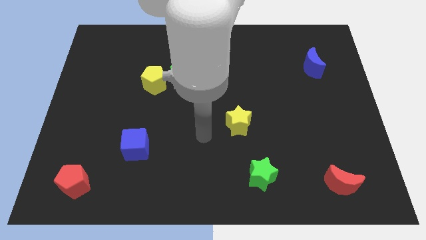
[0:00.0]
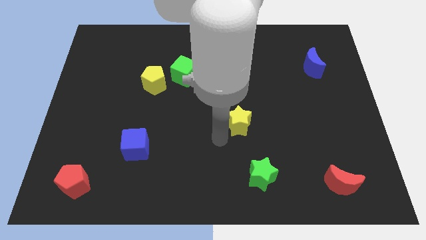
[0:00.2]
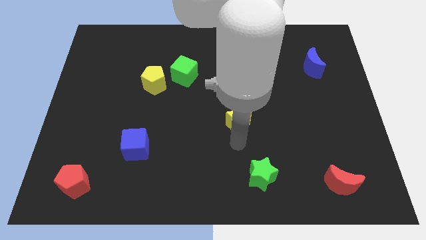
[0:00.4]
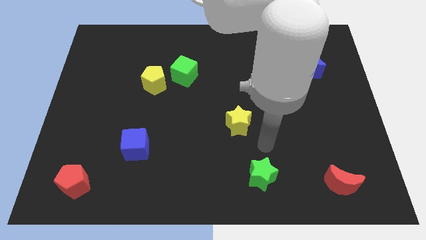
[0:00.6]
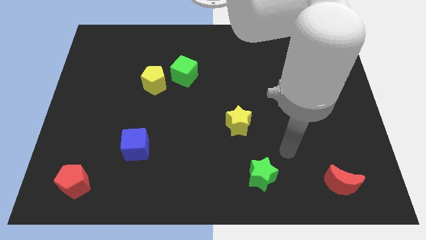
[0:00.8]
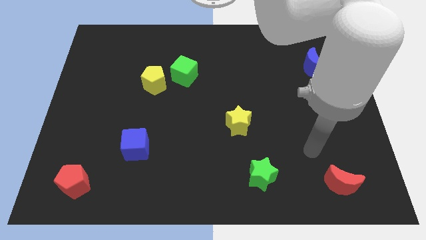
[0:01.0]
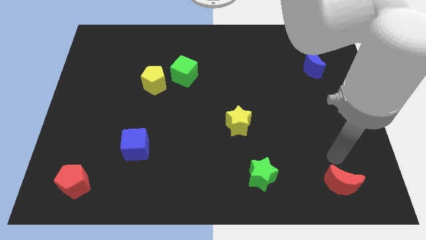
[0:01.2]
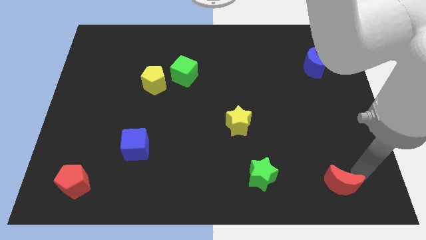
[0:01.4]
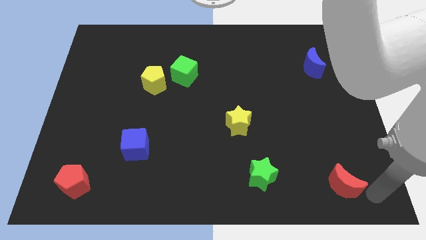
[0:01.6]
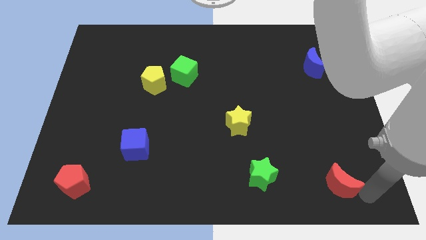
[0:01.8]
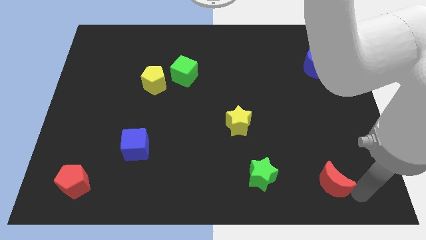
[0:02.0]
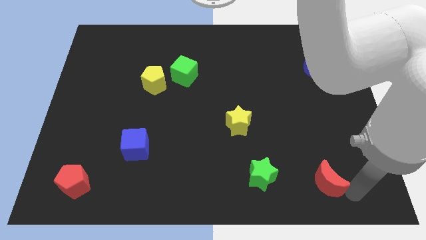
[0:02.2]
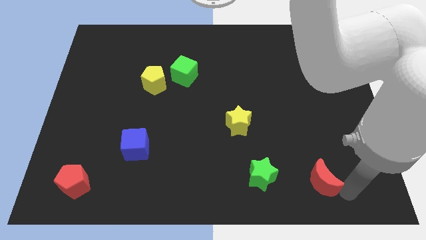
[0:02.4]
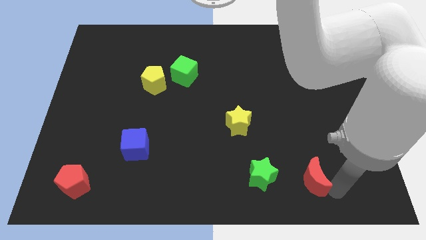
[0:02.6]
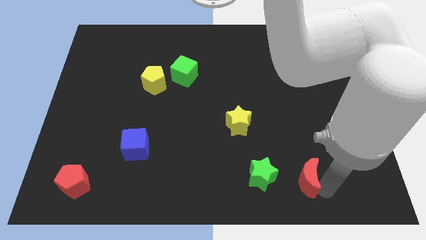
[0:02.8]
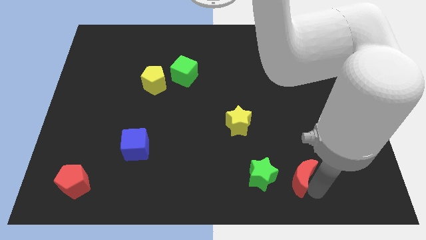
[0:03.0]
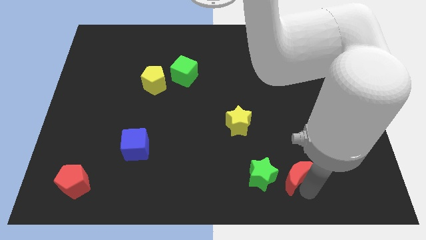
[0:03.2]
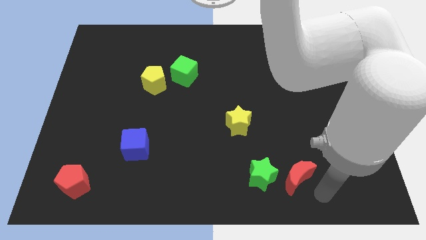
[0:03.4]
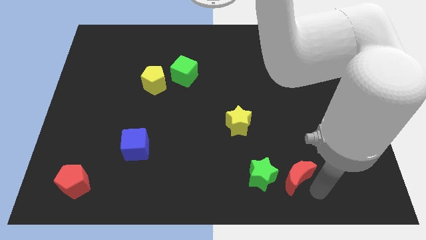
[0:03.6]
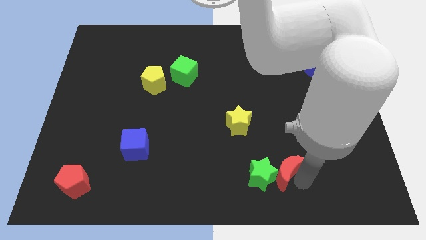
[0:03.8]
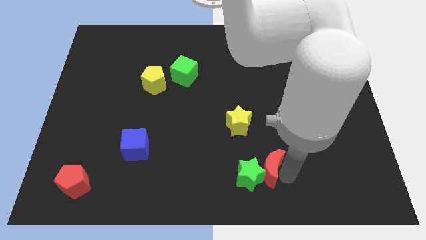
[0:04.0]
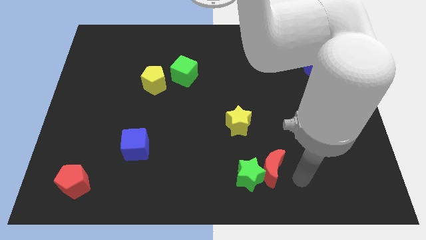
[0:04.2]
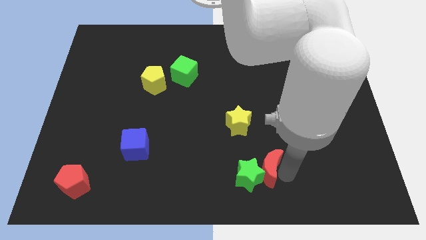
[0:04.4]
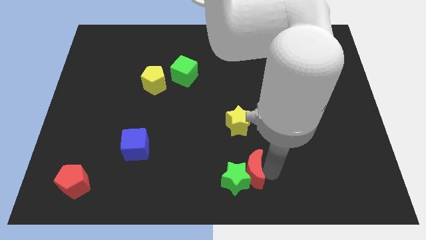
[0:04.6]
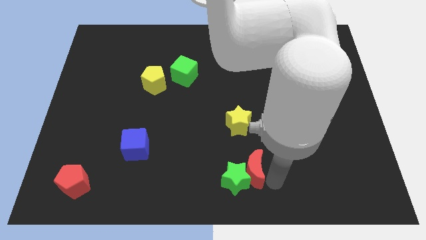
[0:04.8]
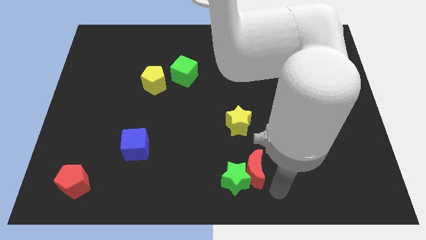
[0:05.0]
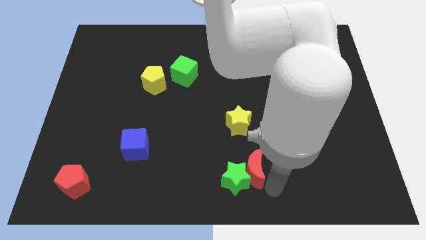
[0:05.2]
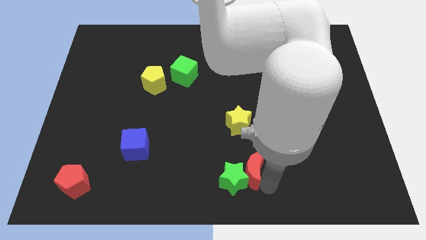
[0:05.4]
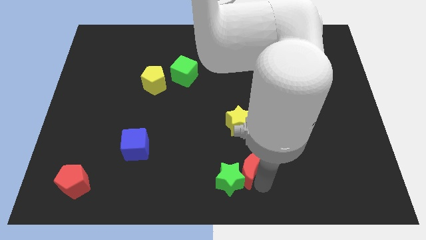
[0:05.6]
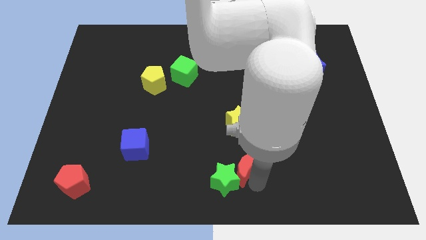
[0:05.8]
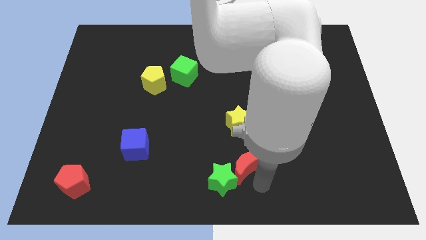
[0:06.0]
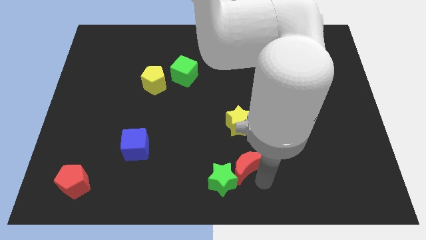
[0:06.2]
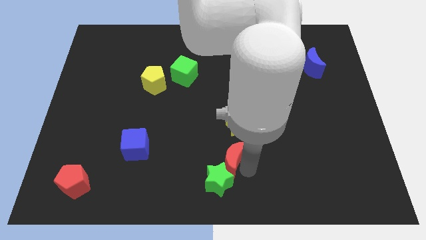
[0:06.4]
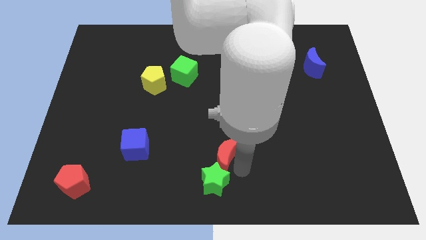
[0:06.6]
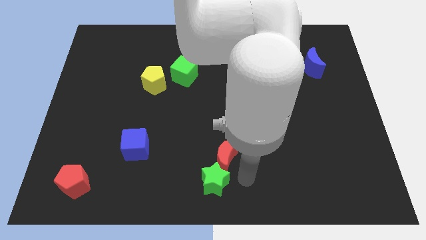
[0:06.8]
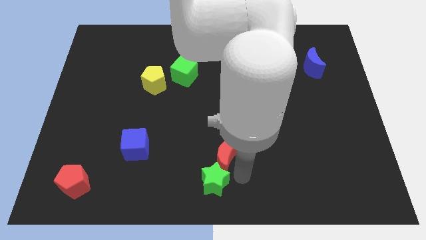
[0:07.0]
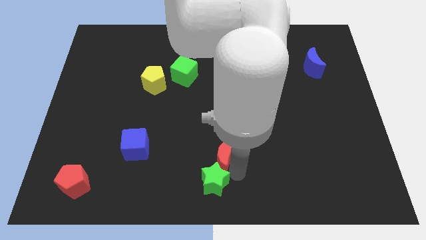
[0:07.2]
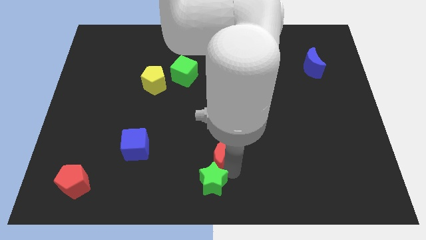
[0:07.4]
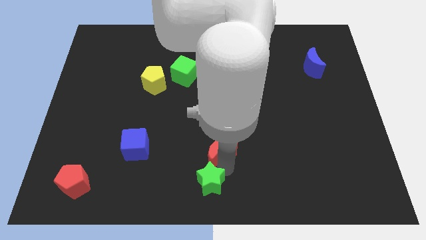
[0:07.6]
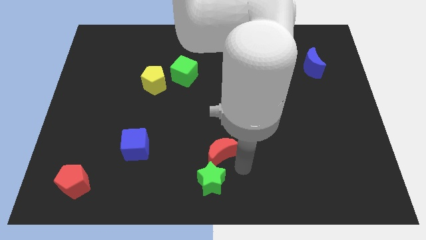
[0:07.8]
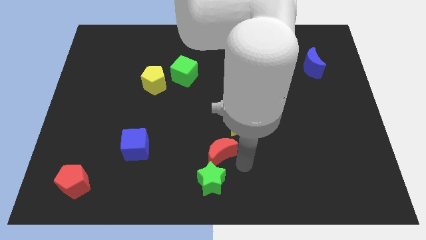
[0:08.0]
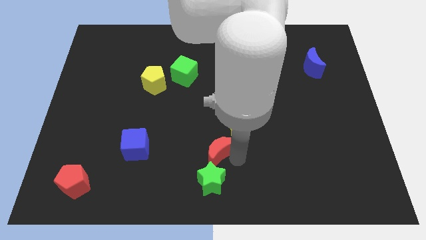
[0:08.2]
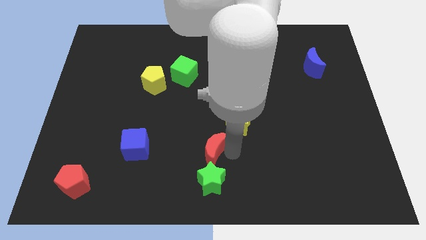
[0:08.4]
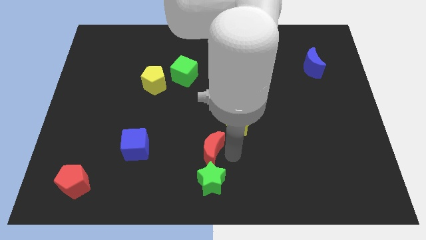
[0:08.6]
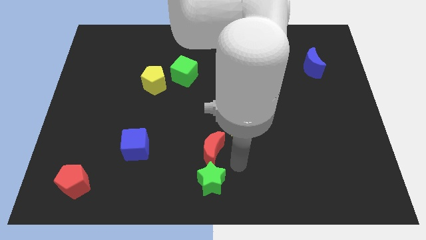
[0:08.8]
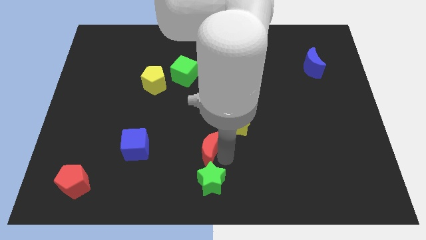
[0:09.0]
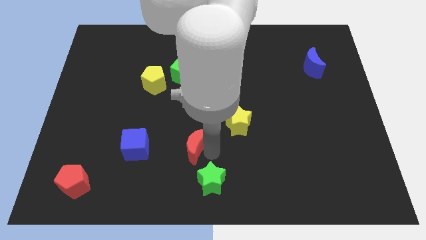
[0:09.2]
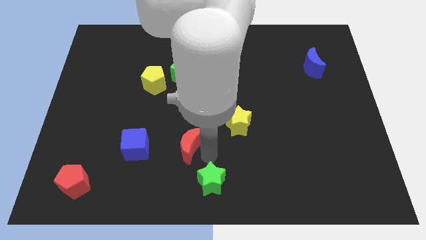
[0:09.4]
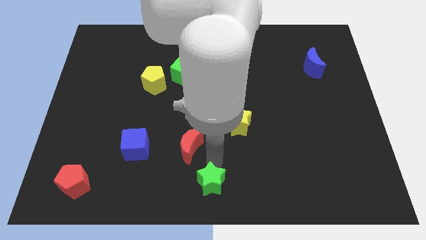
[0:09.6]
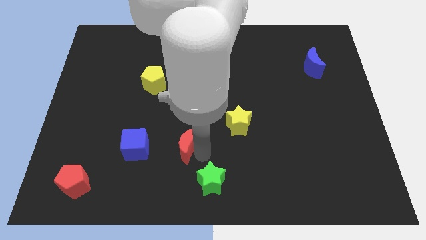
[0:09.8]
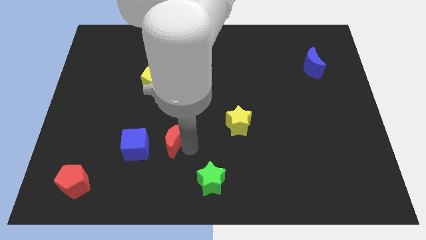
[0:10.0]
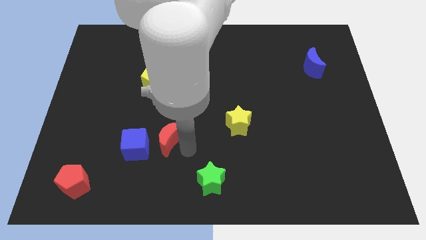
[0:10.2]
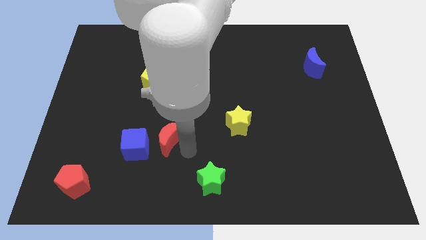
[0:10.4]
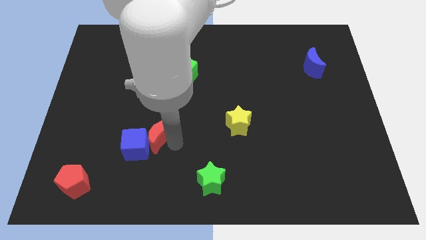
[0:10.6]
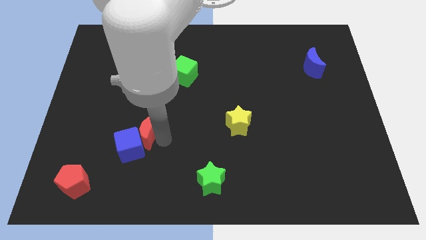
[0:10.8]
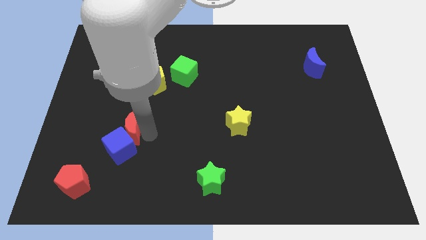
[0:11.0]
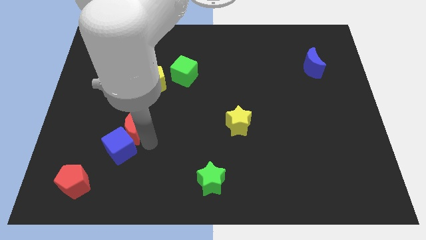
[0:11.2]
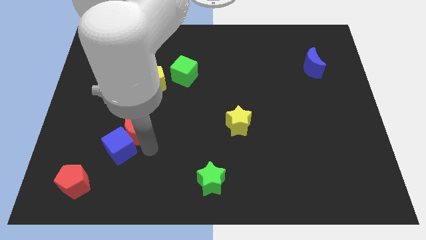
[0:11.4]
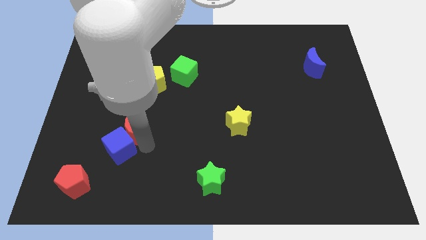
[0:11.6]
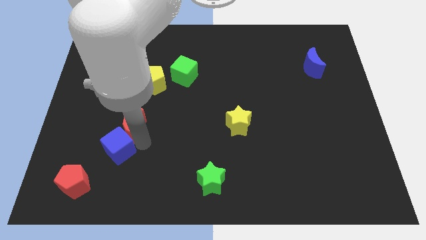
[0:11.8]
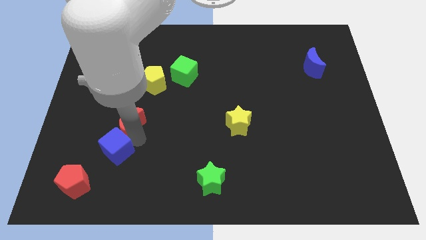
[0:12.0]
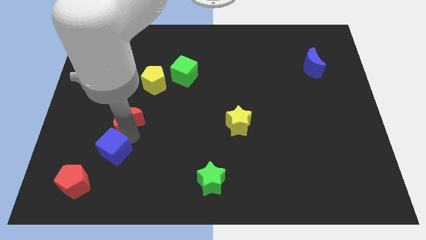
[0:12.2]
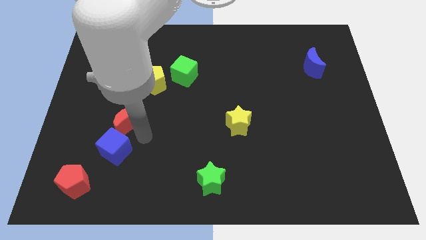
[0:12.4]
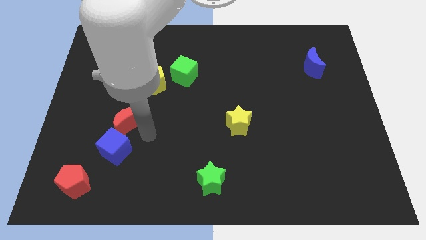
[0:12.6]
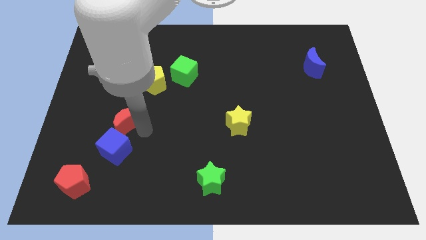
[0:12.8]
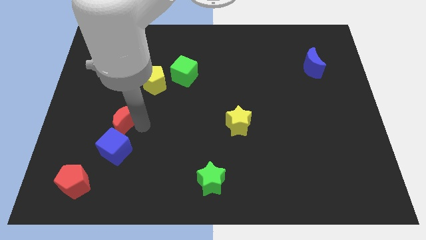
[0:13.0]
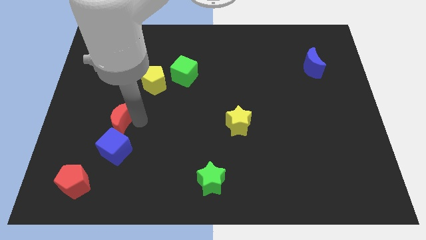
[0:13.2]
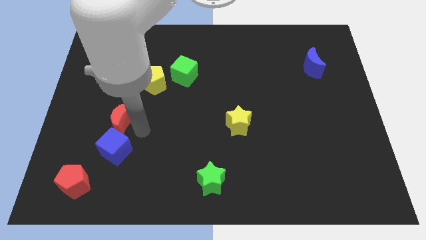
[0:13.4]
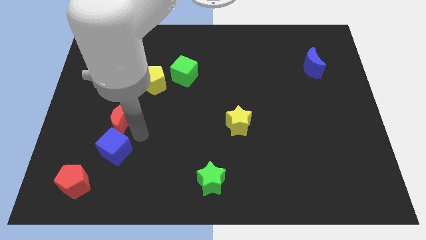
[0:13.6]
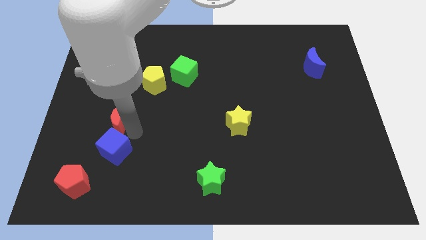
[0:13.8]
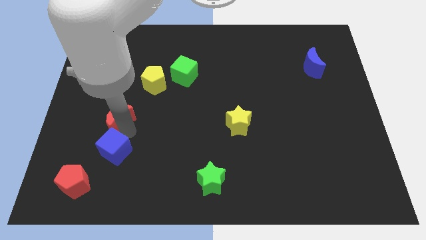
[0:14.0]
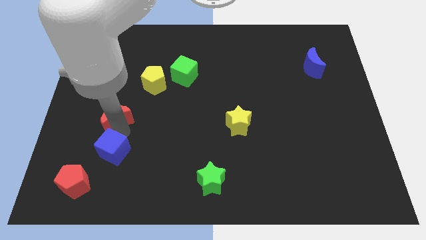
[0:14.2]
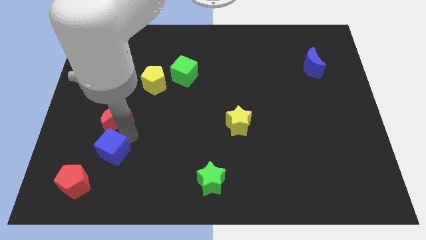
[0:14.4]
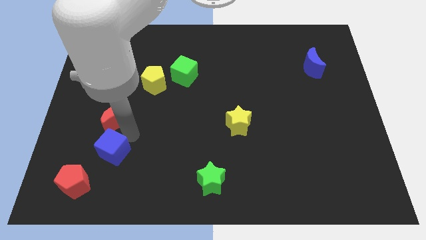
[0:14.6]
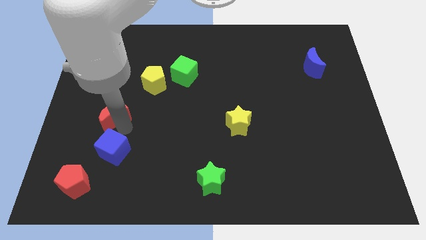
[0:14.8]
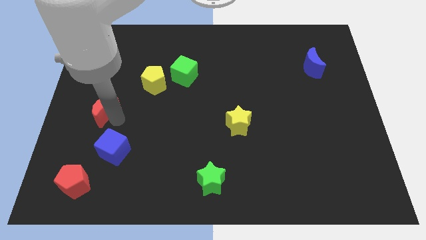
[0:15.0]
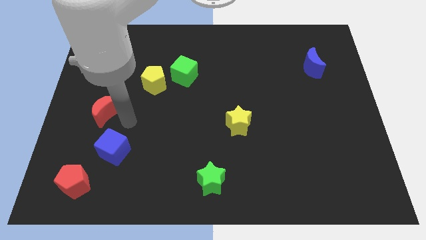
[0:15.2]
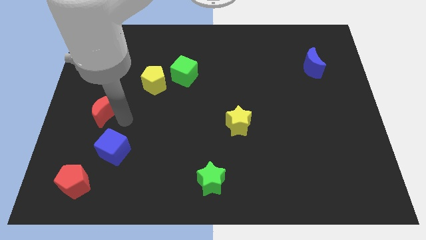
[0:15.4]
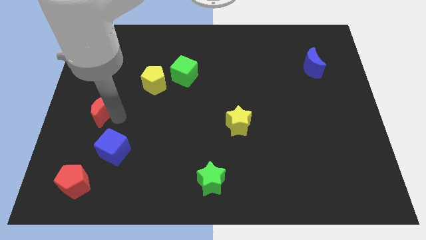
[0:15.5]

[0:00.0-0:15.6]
move the red moon to the left side
